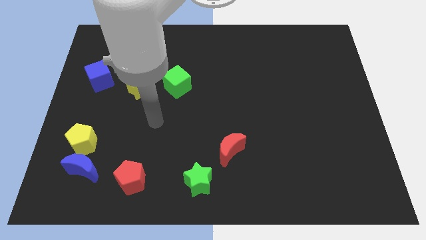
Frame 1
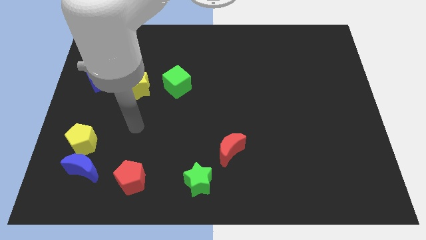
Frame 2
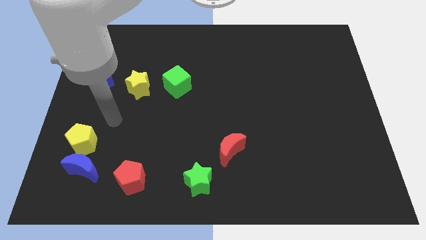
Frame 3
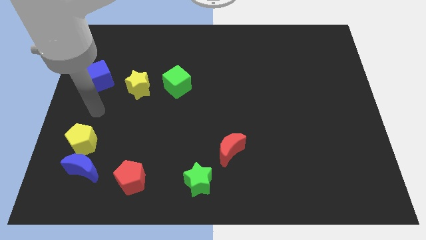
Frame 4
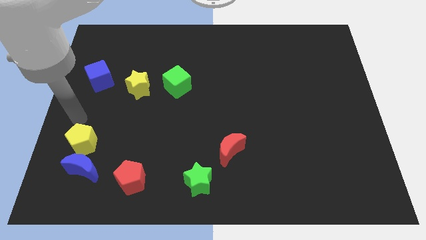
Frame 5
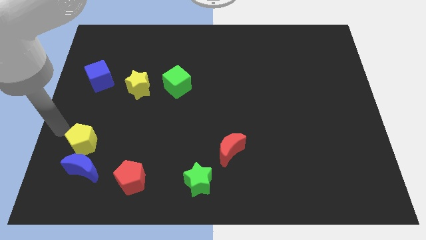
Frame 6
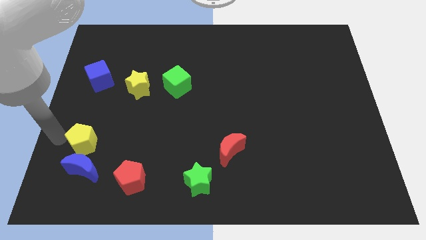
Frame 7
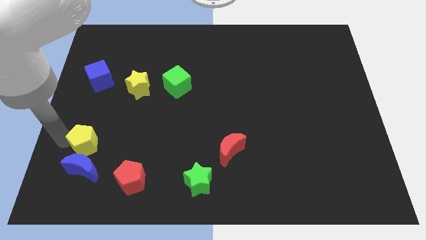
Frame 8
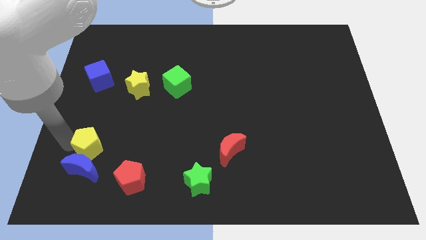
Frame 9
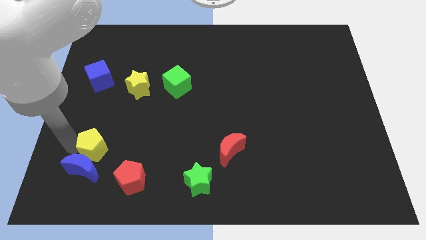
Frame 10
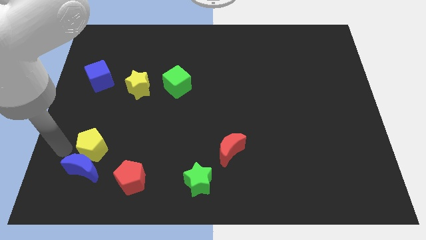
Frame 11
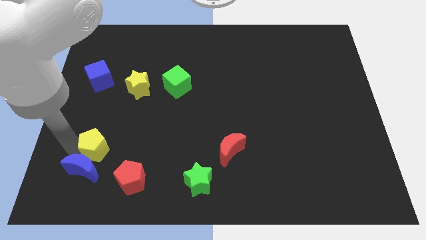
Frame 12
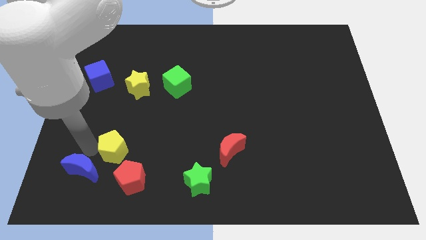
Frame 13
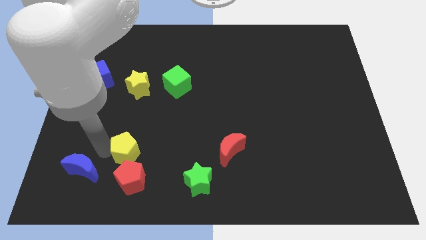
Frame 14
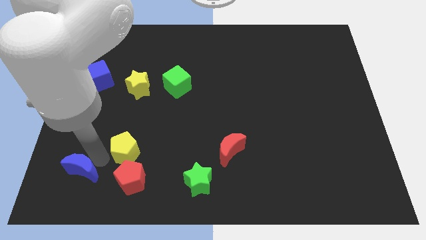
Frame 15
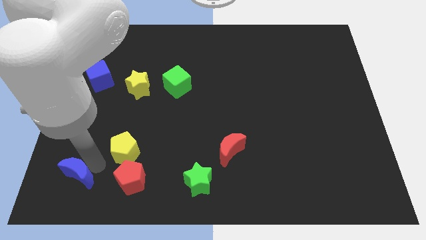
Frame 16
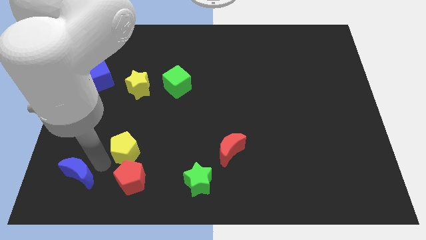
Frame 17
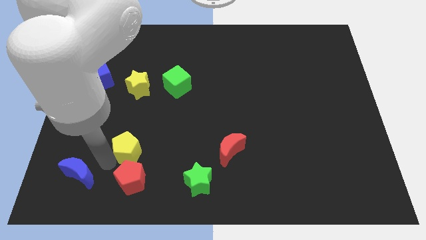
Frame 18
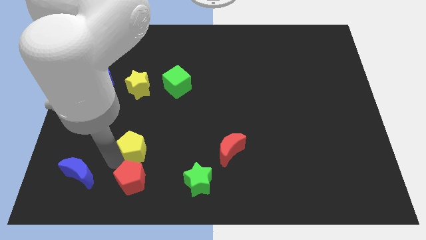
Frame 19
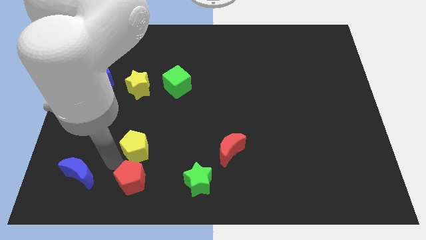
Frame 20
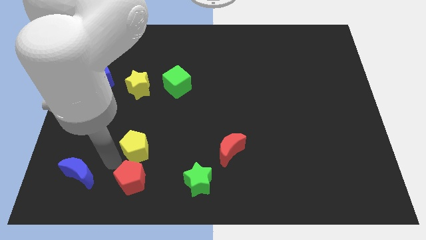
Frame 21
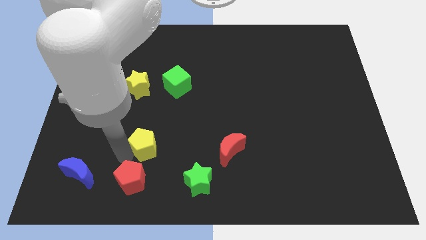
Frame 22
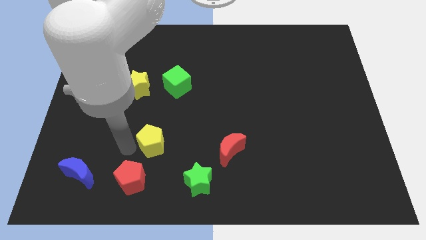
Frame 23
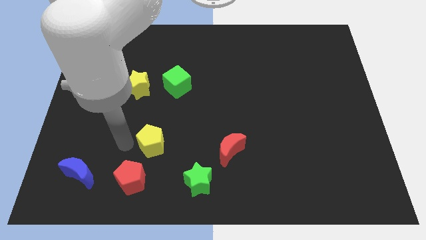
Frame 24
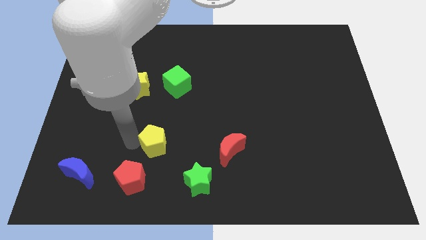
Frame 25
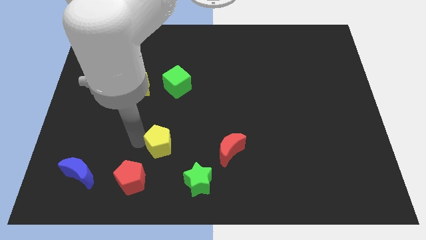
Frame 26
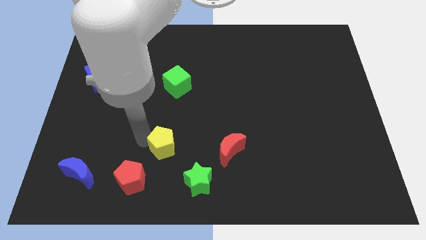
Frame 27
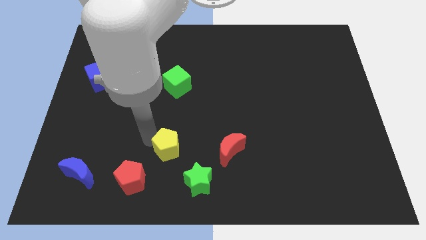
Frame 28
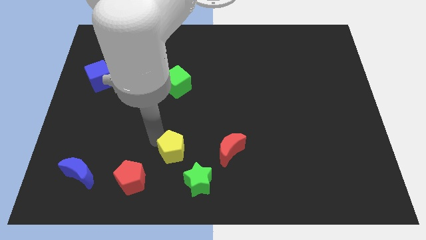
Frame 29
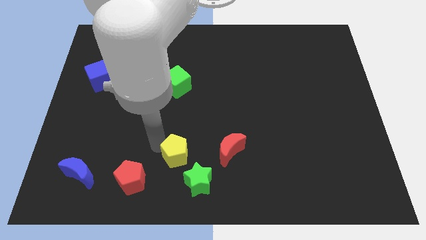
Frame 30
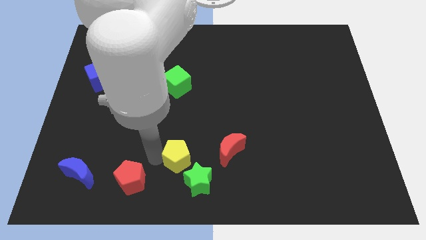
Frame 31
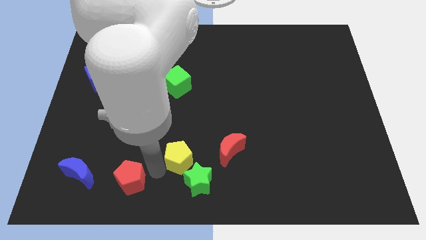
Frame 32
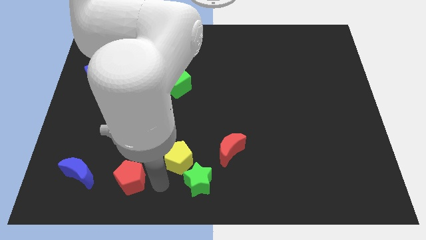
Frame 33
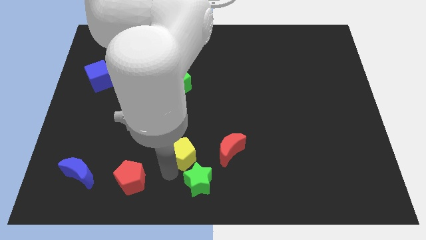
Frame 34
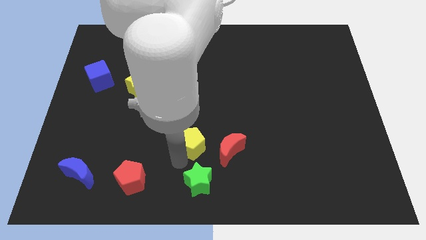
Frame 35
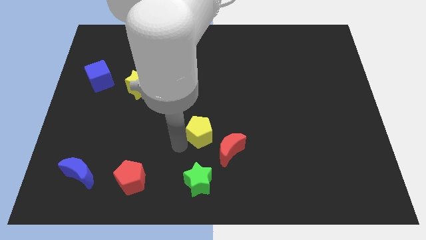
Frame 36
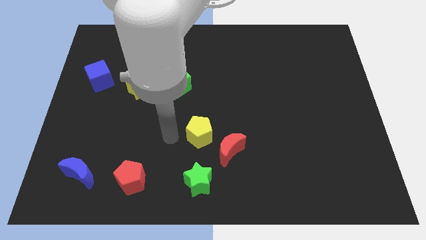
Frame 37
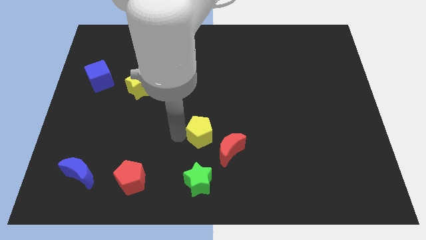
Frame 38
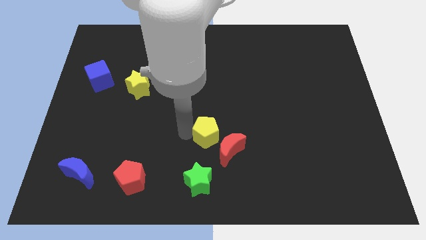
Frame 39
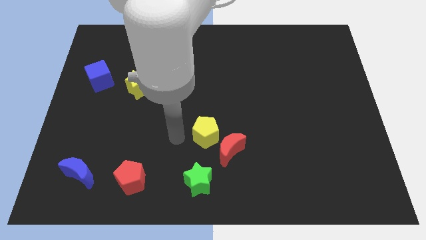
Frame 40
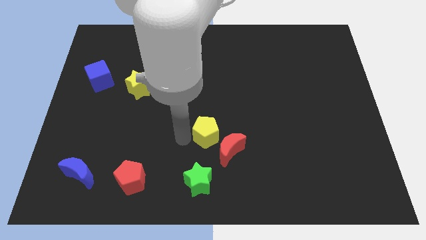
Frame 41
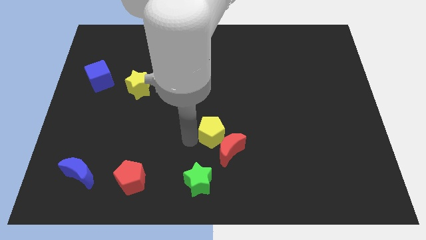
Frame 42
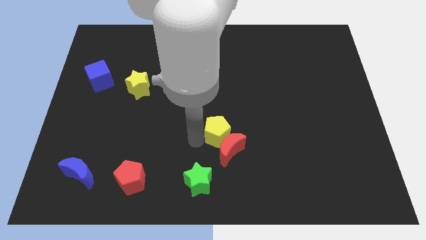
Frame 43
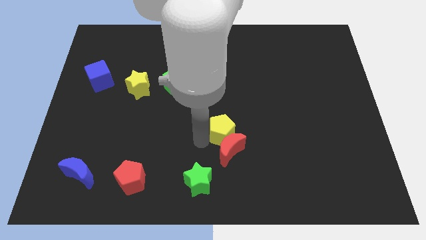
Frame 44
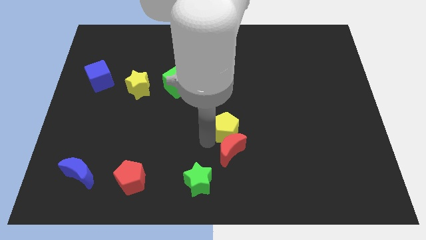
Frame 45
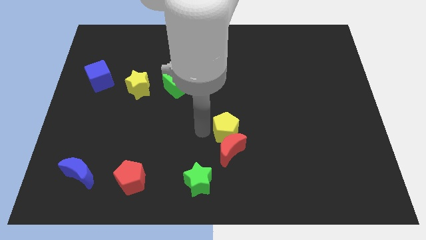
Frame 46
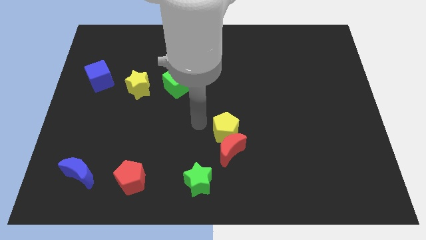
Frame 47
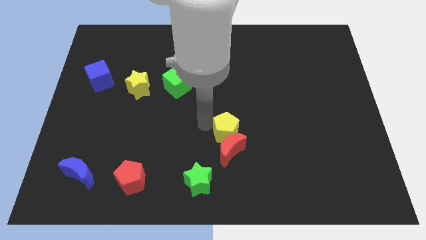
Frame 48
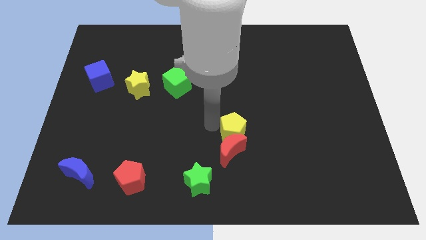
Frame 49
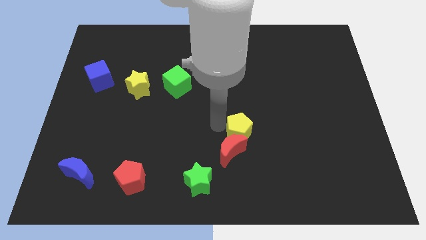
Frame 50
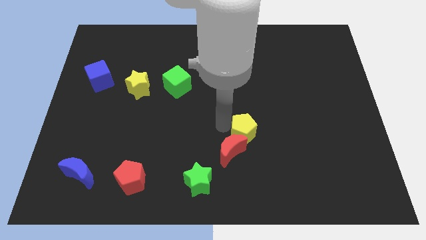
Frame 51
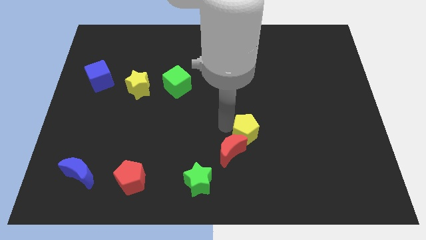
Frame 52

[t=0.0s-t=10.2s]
slide the yellow pentagon just right of the red moon

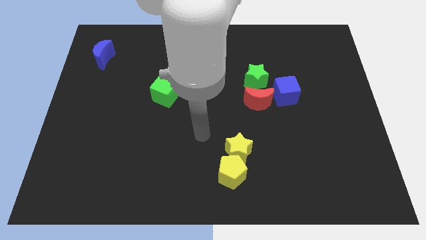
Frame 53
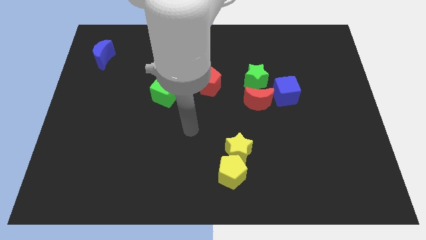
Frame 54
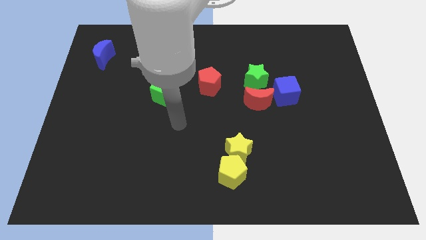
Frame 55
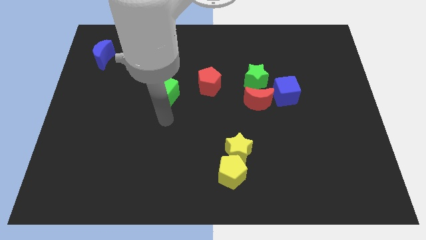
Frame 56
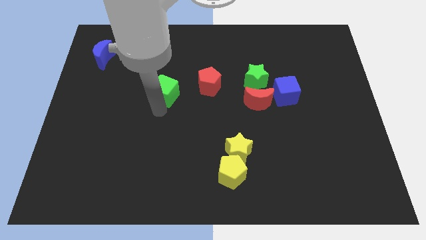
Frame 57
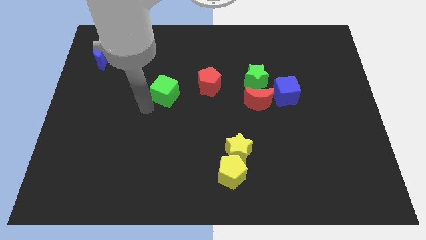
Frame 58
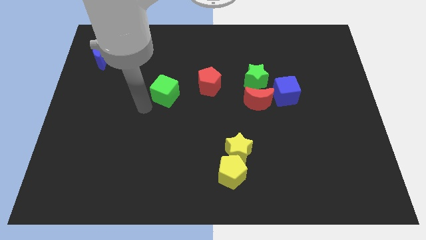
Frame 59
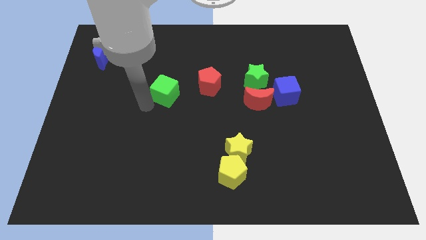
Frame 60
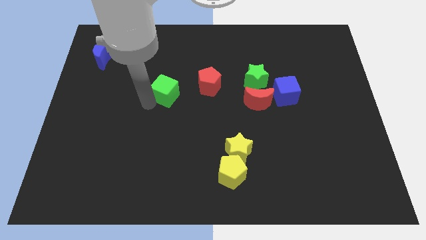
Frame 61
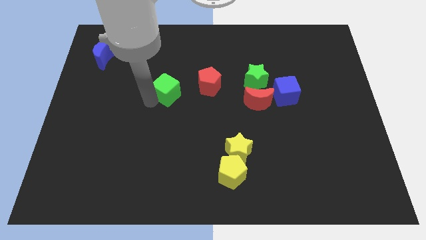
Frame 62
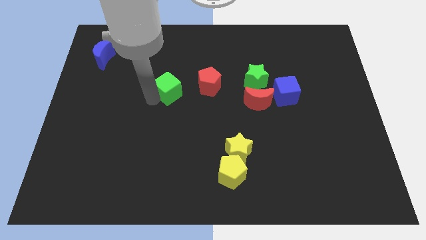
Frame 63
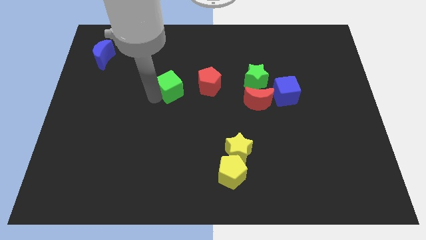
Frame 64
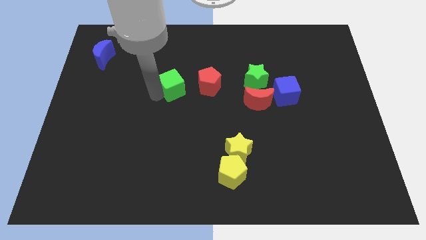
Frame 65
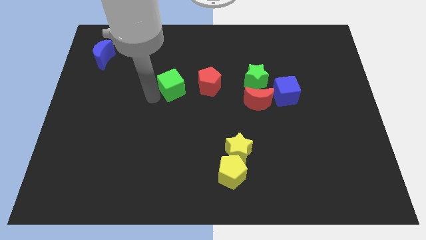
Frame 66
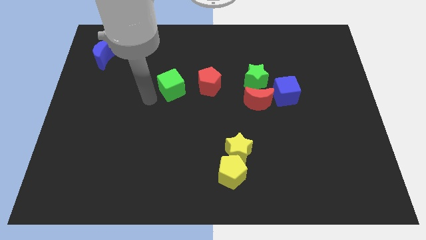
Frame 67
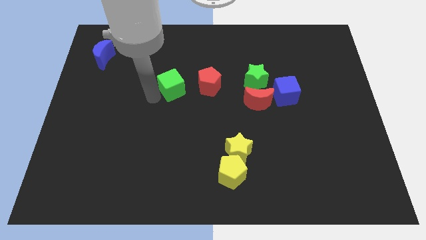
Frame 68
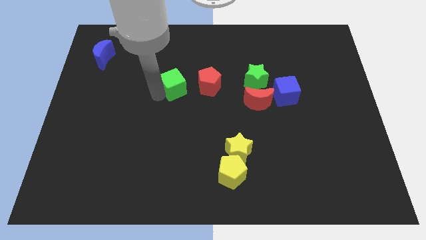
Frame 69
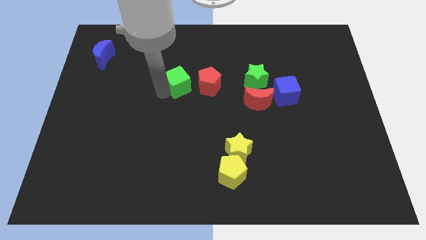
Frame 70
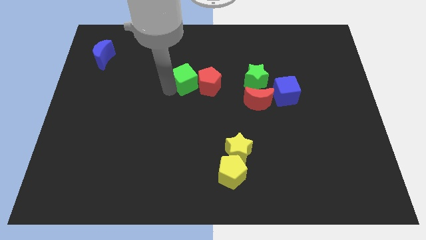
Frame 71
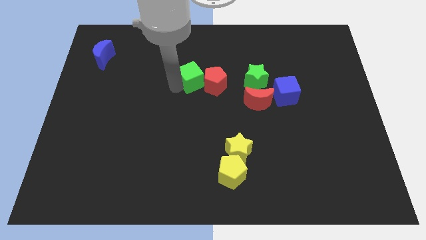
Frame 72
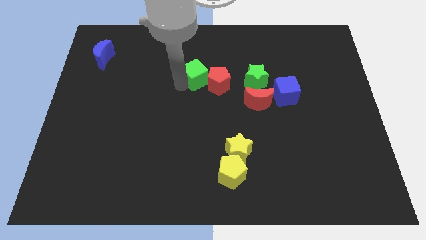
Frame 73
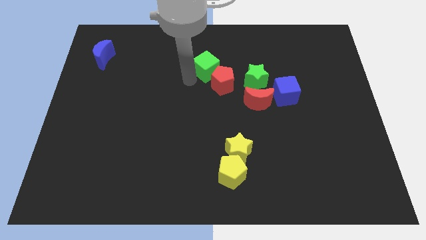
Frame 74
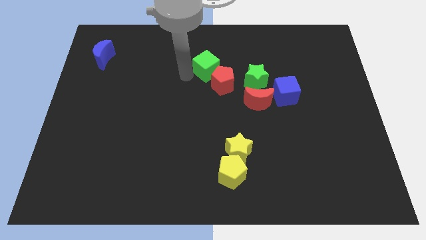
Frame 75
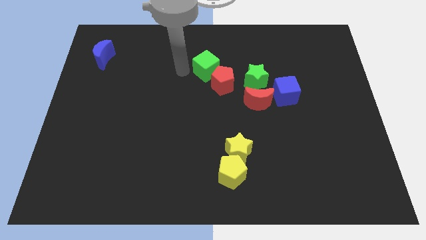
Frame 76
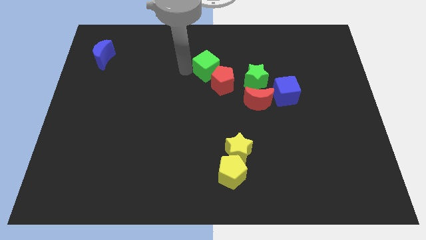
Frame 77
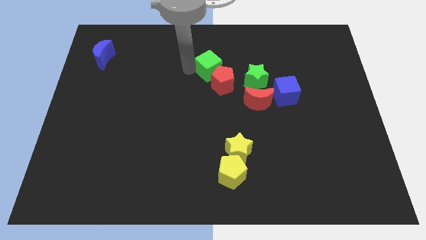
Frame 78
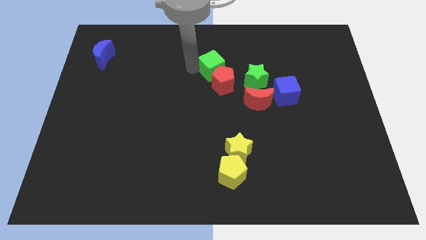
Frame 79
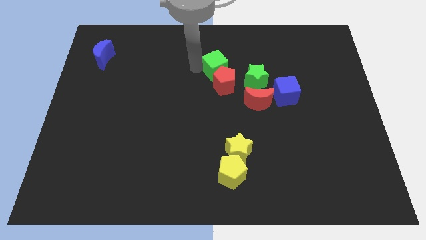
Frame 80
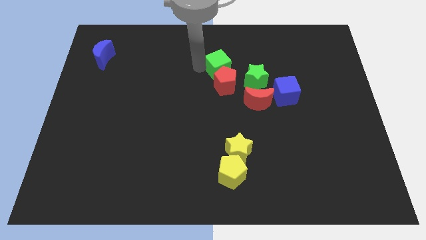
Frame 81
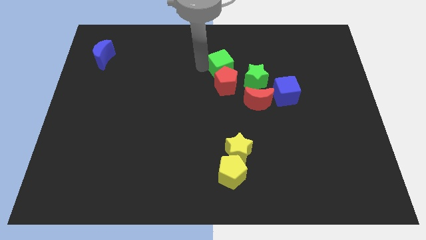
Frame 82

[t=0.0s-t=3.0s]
slide the green cube to the top right of the red pentagon
